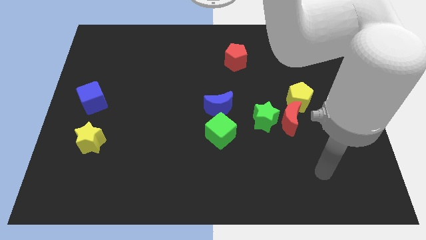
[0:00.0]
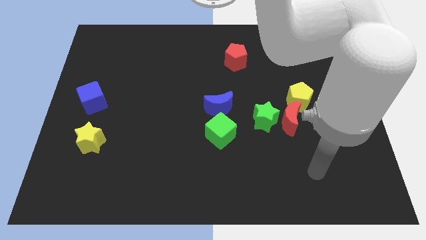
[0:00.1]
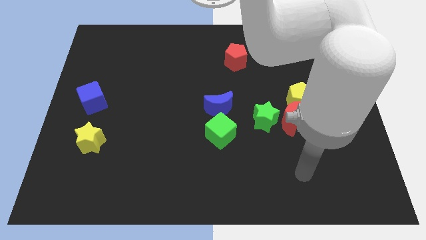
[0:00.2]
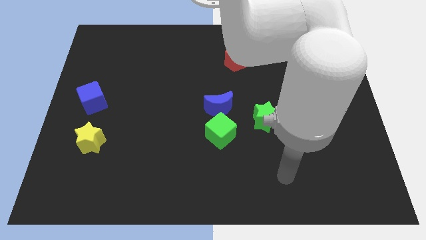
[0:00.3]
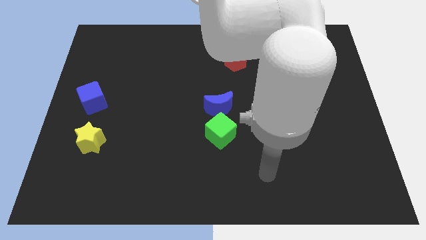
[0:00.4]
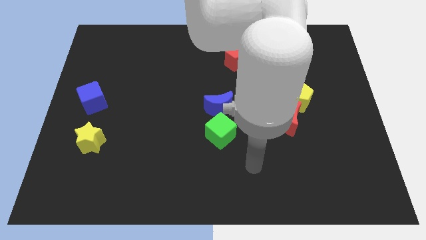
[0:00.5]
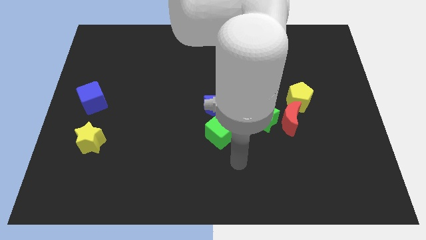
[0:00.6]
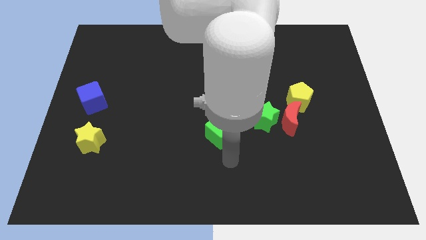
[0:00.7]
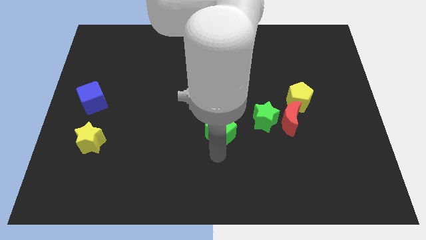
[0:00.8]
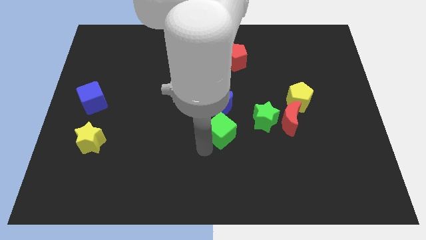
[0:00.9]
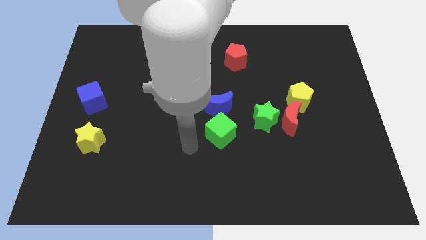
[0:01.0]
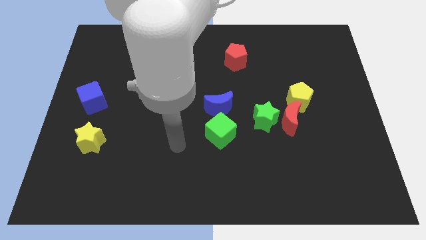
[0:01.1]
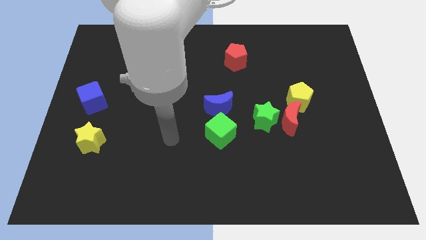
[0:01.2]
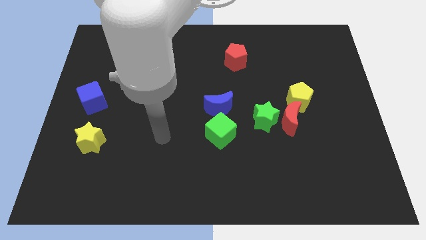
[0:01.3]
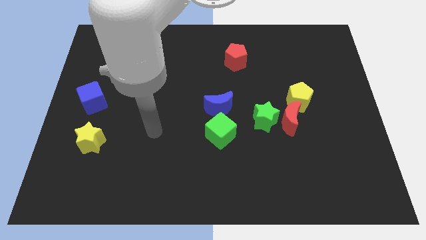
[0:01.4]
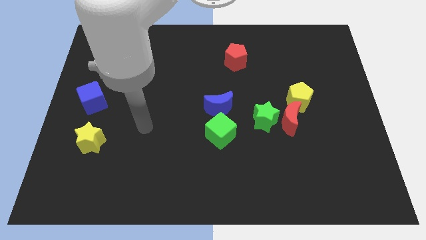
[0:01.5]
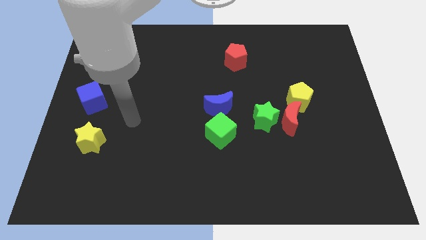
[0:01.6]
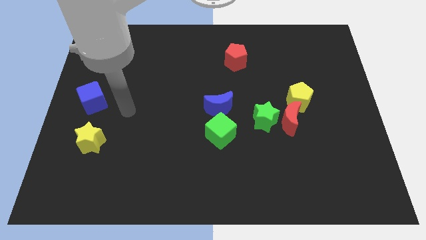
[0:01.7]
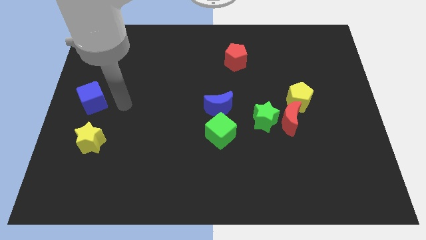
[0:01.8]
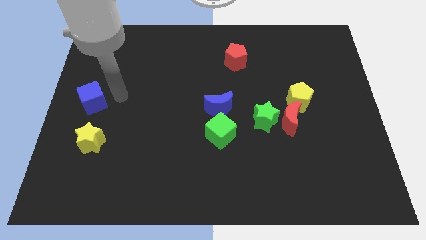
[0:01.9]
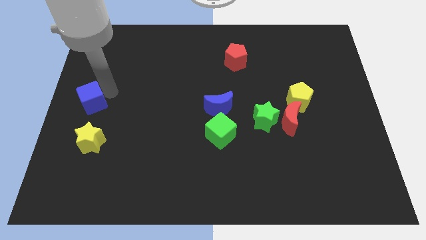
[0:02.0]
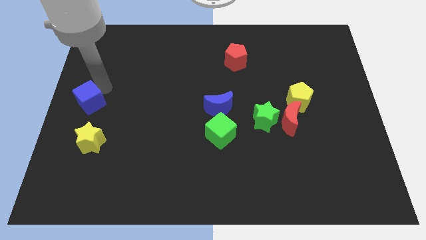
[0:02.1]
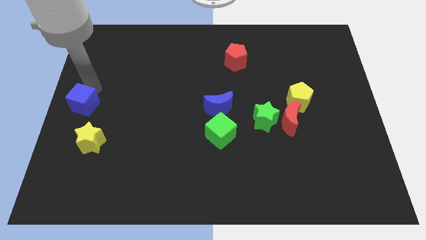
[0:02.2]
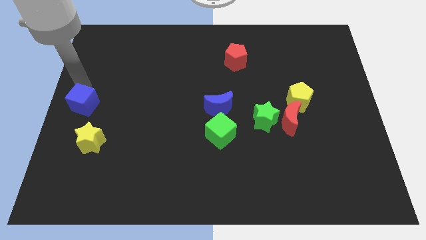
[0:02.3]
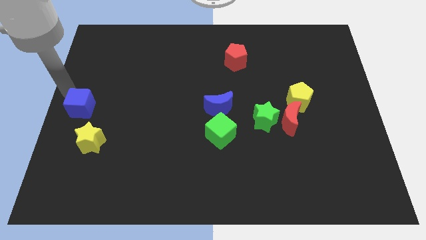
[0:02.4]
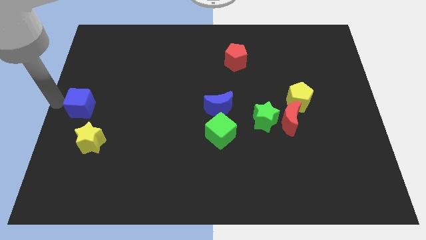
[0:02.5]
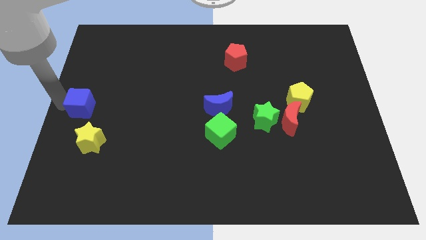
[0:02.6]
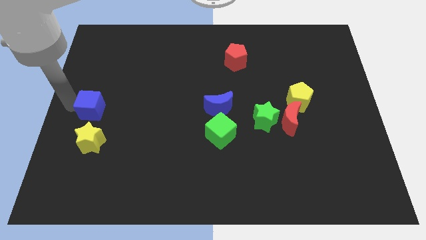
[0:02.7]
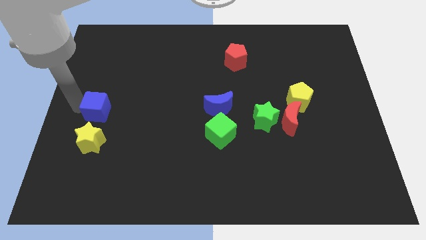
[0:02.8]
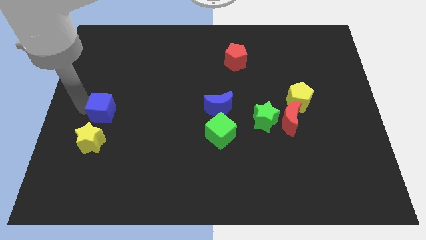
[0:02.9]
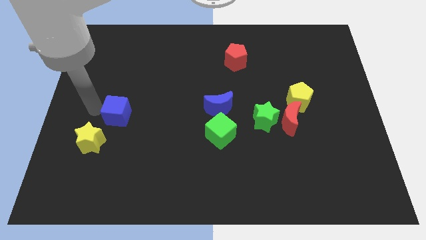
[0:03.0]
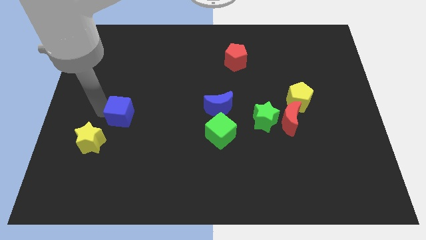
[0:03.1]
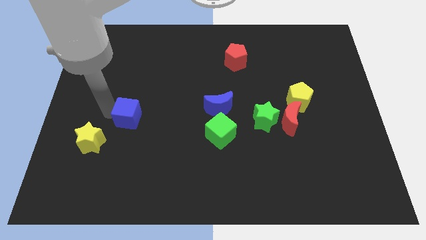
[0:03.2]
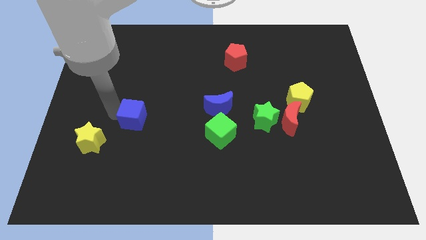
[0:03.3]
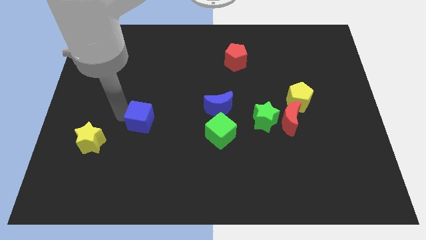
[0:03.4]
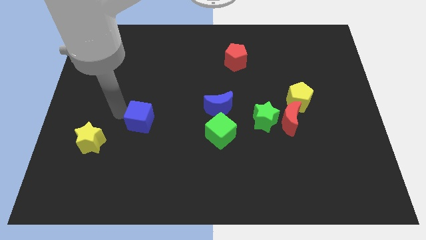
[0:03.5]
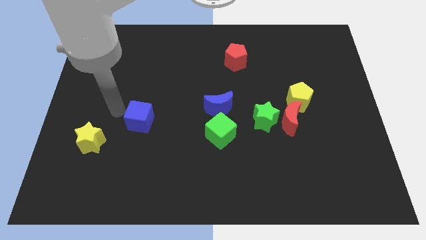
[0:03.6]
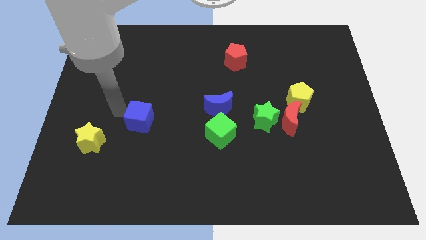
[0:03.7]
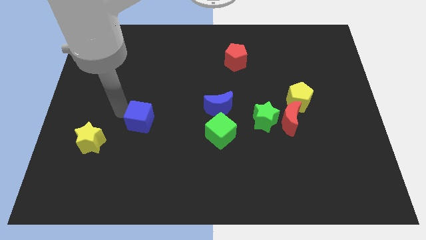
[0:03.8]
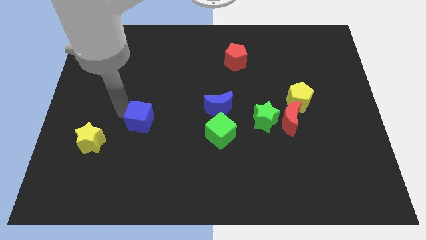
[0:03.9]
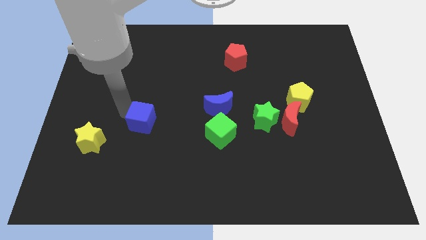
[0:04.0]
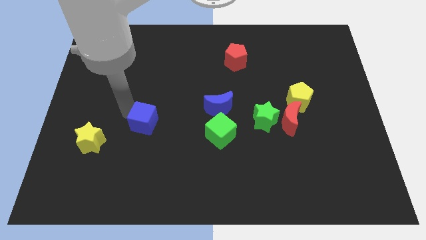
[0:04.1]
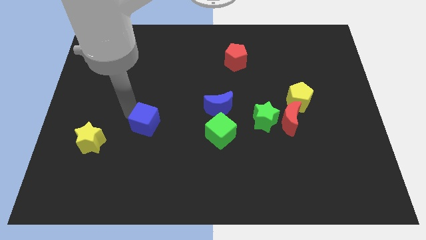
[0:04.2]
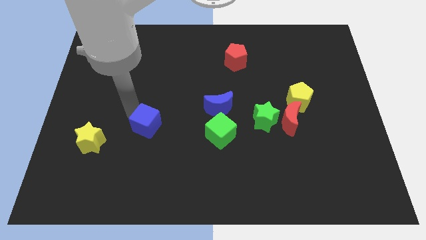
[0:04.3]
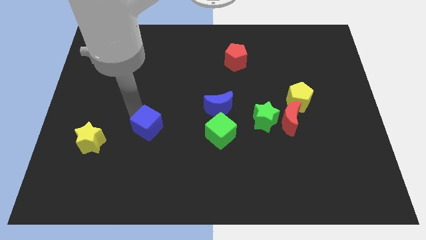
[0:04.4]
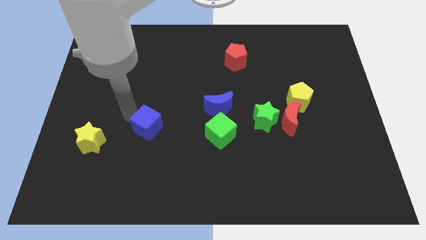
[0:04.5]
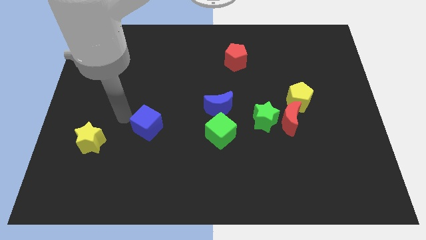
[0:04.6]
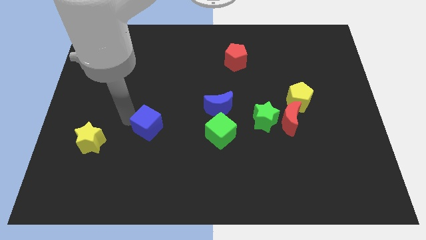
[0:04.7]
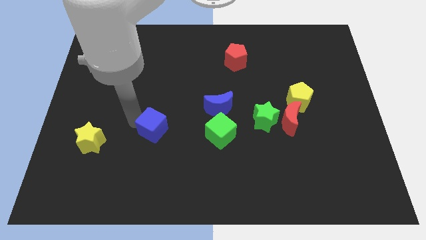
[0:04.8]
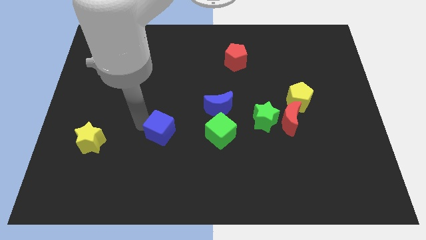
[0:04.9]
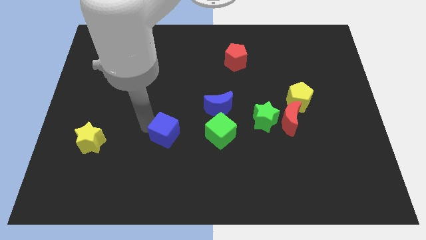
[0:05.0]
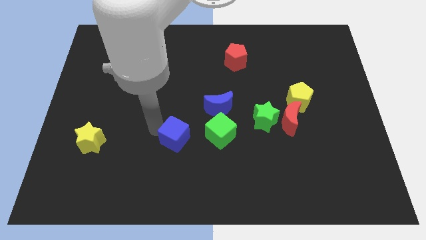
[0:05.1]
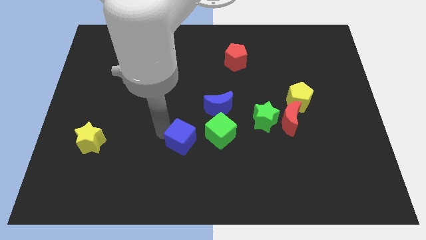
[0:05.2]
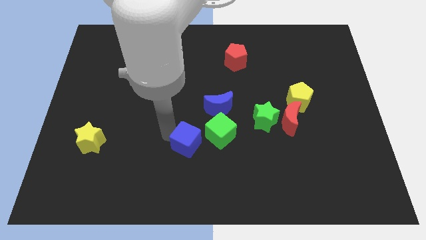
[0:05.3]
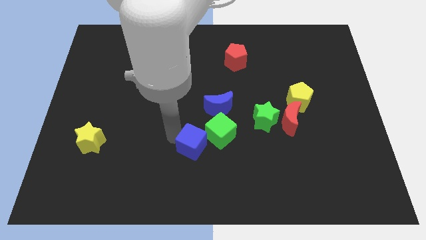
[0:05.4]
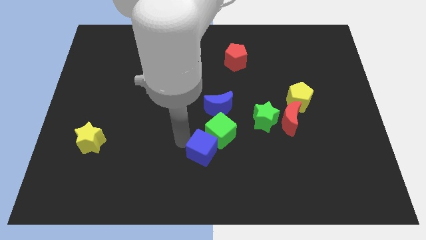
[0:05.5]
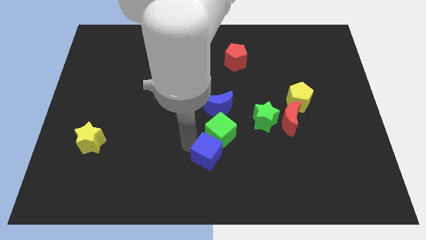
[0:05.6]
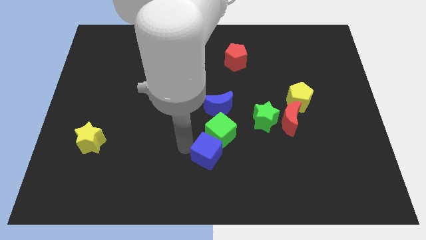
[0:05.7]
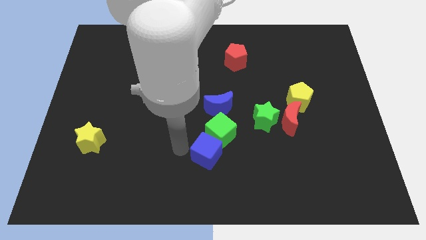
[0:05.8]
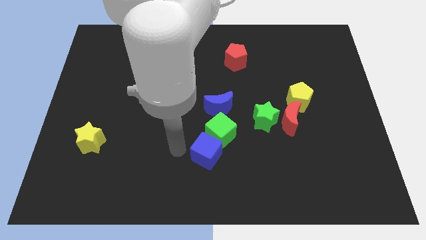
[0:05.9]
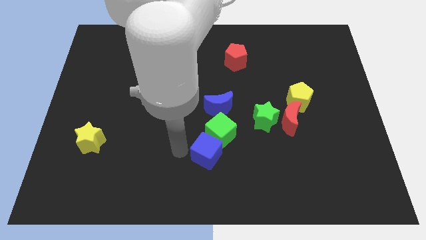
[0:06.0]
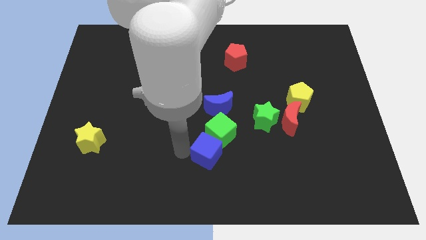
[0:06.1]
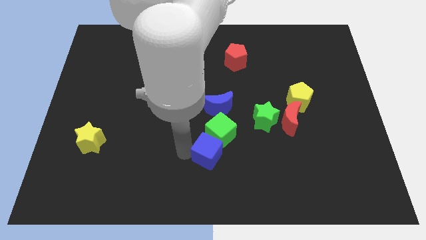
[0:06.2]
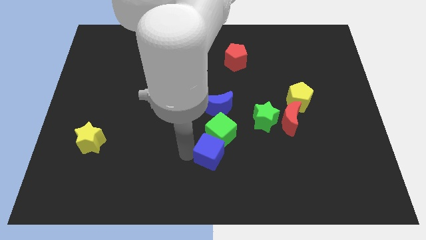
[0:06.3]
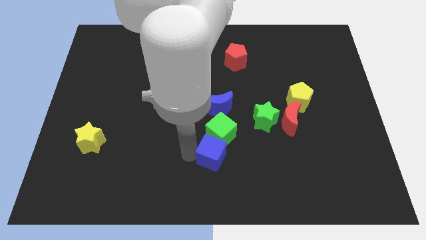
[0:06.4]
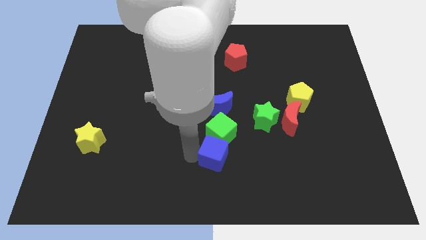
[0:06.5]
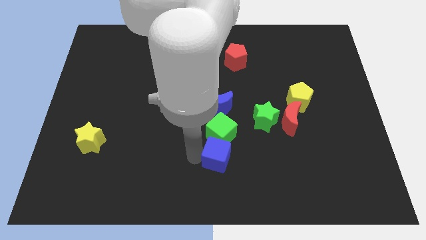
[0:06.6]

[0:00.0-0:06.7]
push the blue cube to the bottom right side of the green cube
